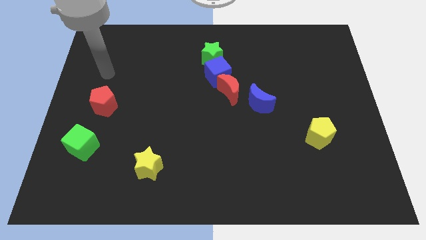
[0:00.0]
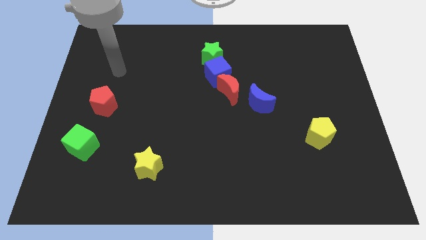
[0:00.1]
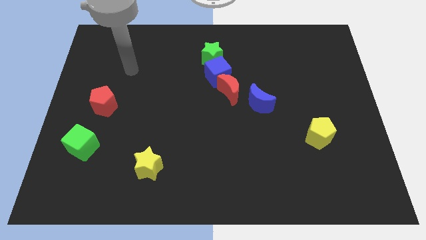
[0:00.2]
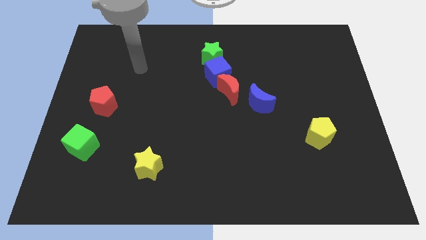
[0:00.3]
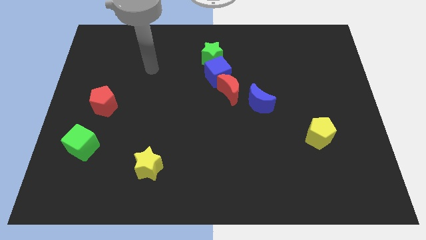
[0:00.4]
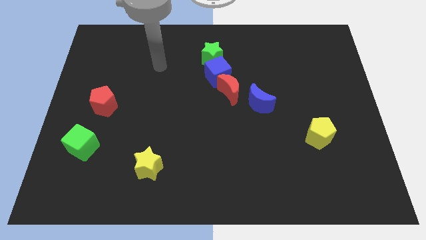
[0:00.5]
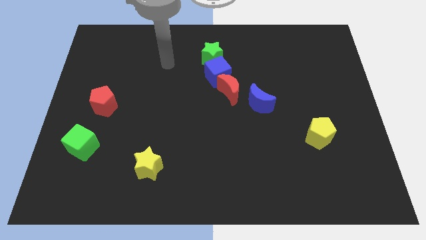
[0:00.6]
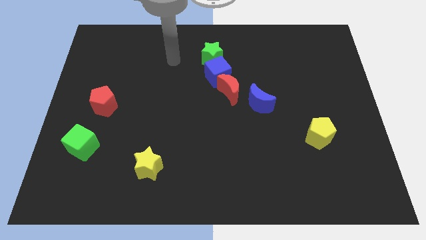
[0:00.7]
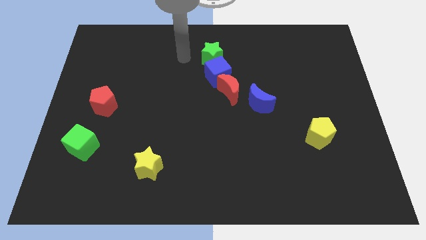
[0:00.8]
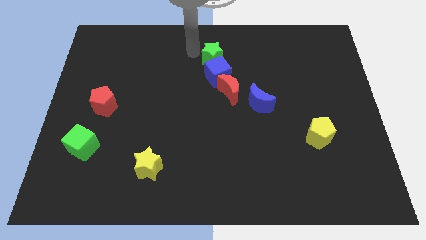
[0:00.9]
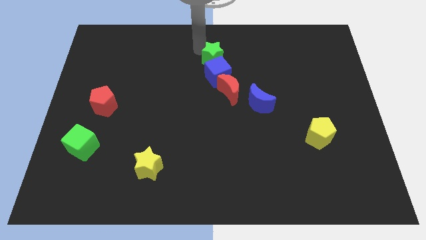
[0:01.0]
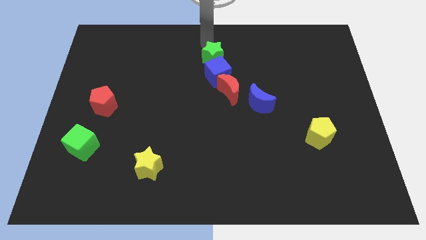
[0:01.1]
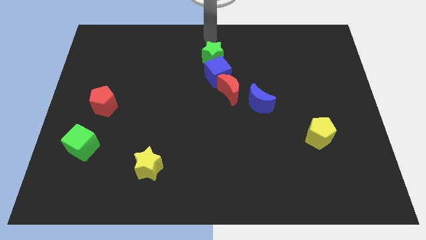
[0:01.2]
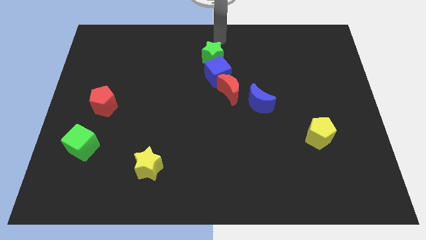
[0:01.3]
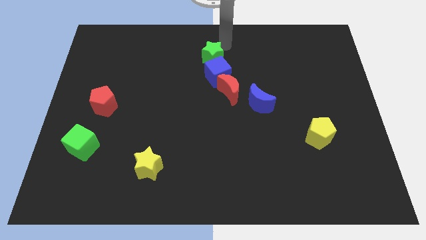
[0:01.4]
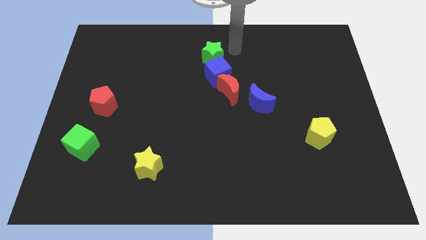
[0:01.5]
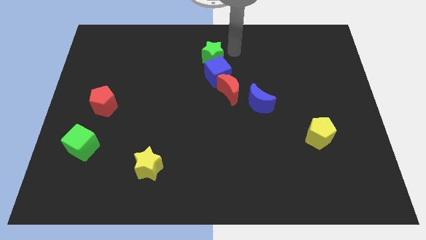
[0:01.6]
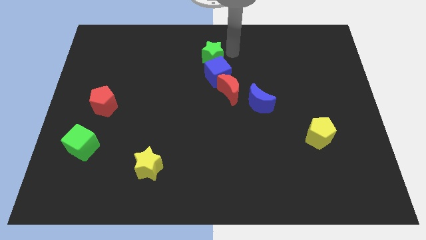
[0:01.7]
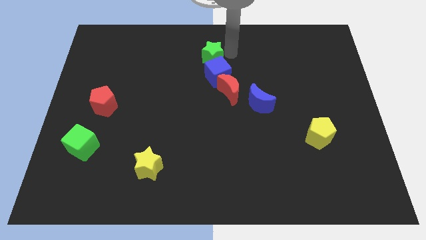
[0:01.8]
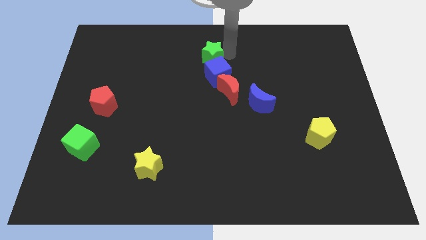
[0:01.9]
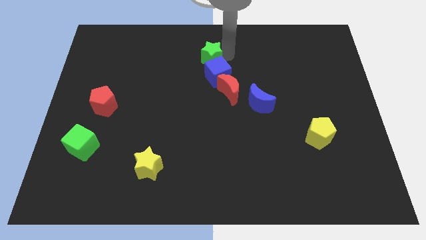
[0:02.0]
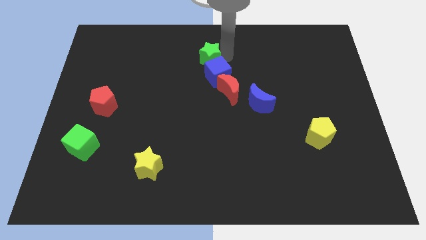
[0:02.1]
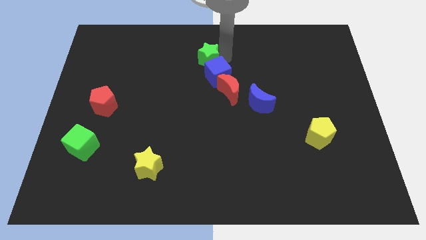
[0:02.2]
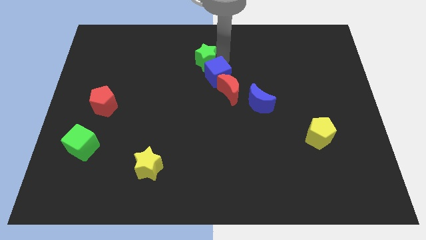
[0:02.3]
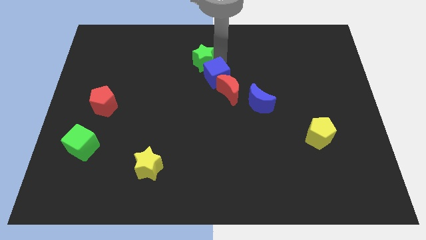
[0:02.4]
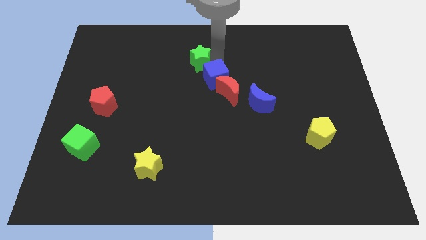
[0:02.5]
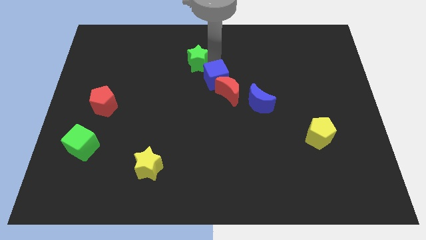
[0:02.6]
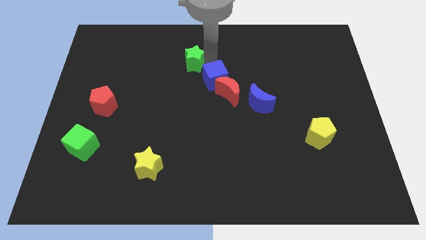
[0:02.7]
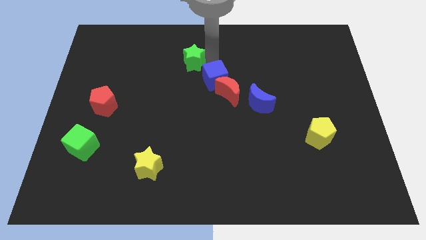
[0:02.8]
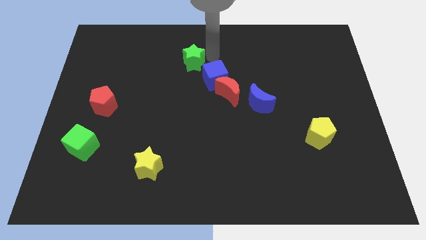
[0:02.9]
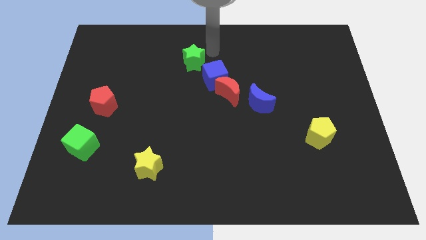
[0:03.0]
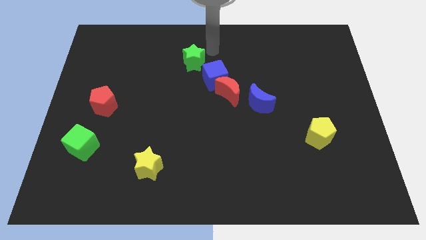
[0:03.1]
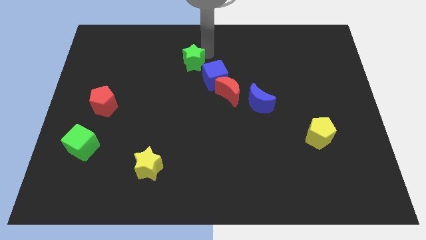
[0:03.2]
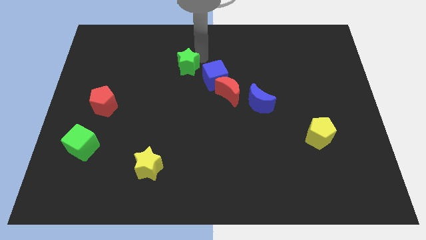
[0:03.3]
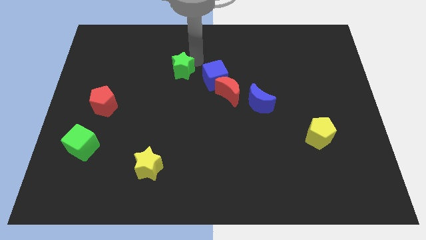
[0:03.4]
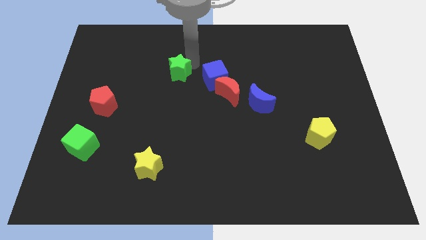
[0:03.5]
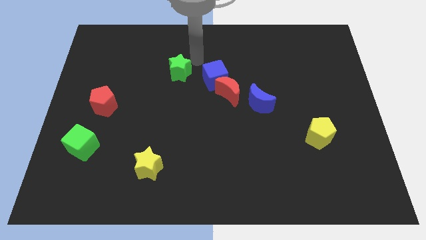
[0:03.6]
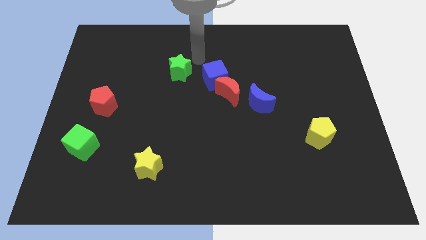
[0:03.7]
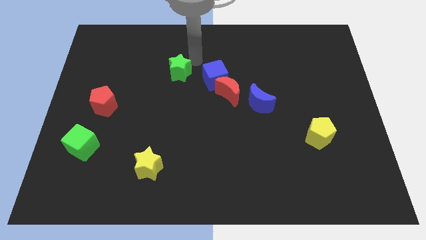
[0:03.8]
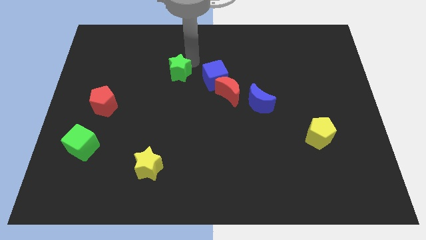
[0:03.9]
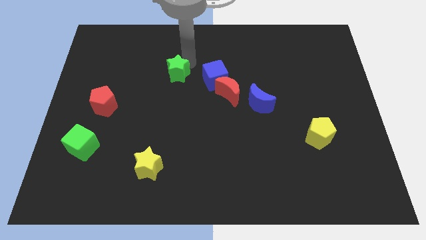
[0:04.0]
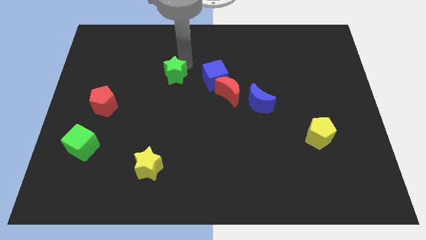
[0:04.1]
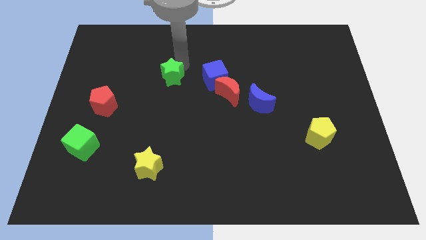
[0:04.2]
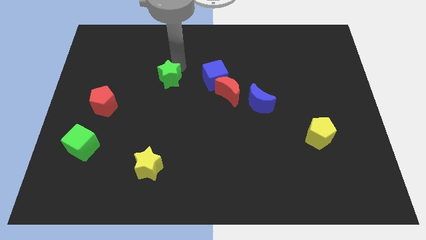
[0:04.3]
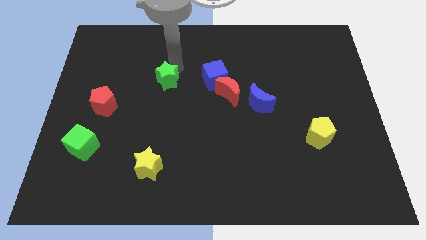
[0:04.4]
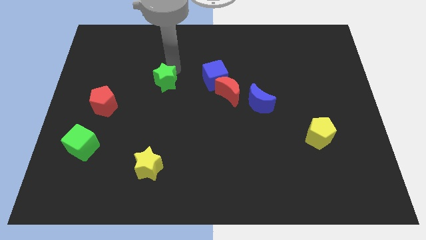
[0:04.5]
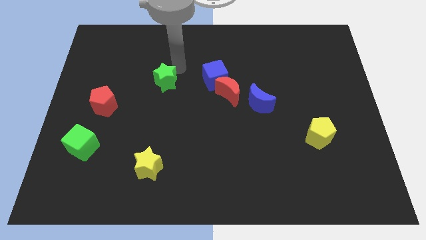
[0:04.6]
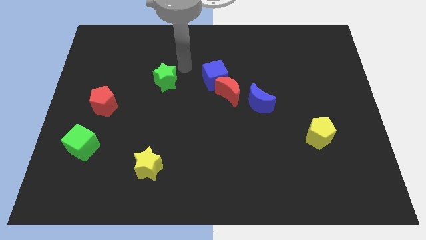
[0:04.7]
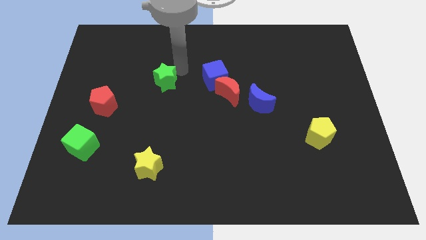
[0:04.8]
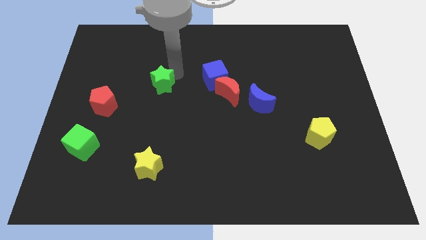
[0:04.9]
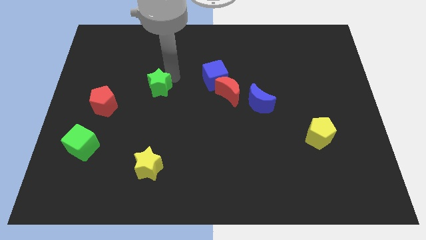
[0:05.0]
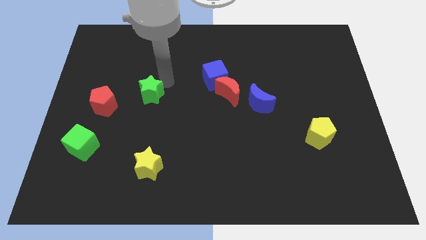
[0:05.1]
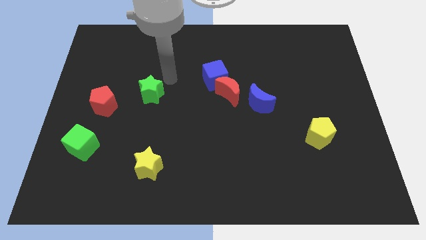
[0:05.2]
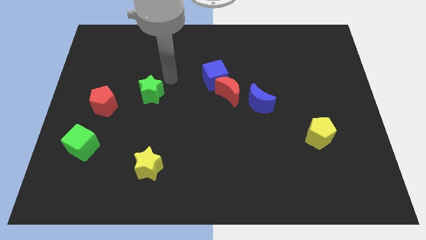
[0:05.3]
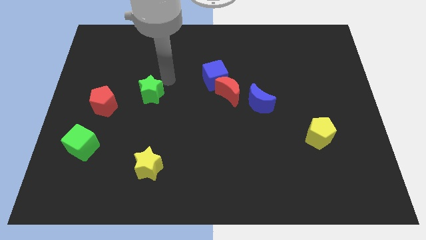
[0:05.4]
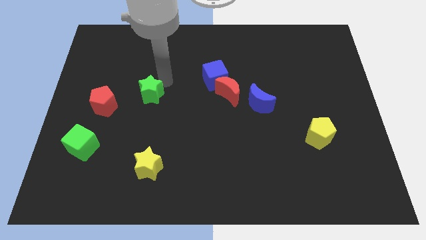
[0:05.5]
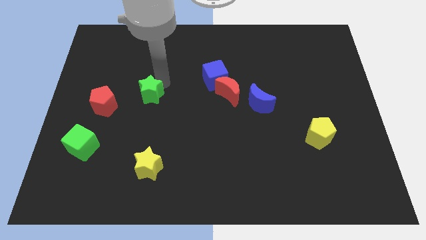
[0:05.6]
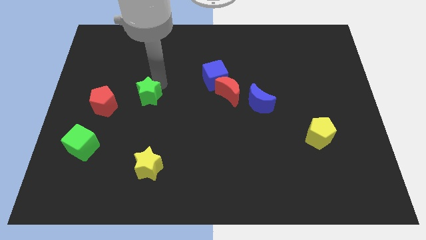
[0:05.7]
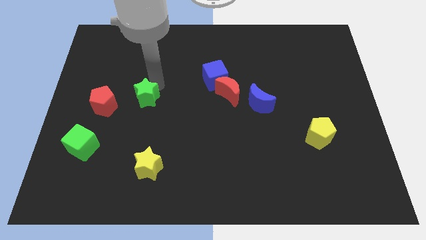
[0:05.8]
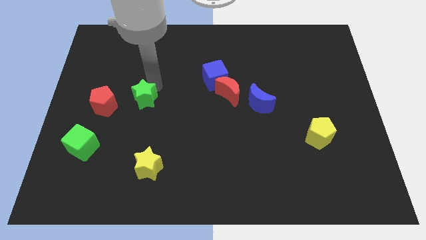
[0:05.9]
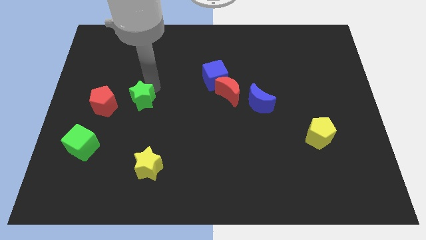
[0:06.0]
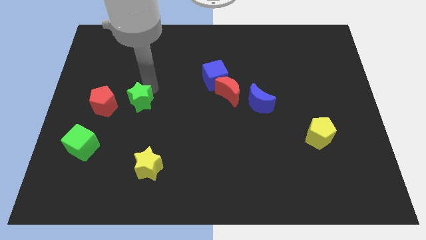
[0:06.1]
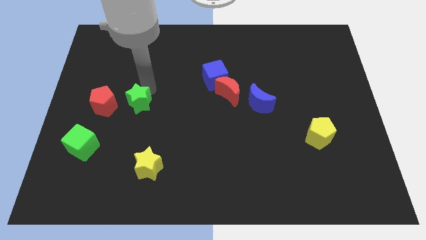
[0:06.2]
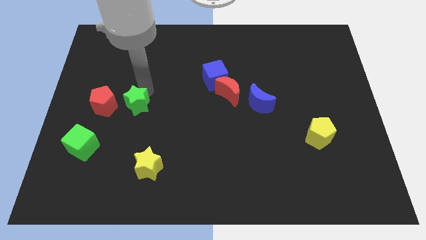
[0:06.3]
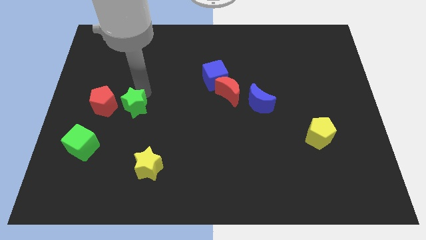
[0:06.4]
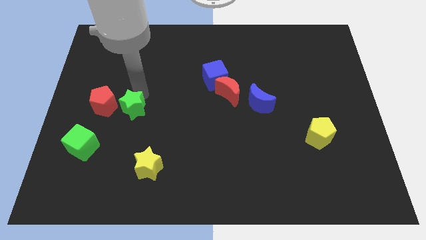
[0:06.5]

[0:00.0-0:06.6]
push the green star diagonally down and to the right of the red pentagon
